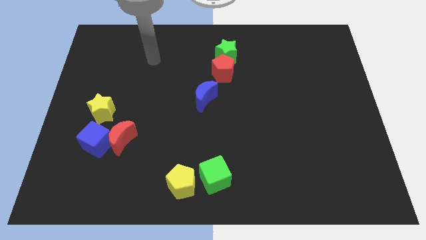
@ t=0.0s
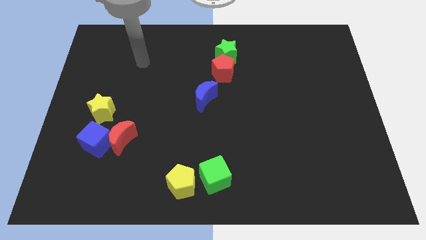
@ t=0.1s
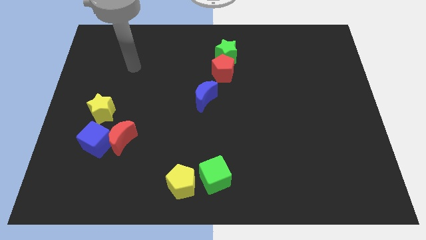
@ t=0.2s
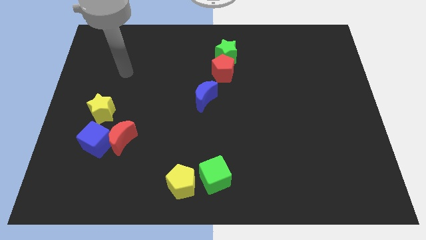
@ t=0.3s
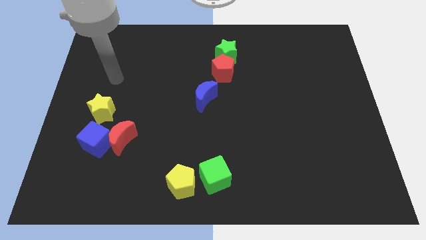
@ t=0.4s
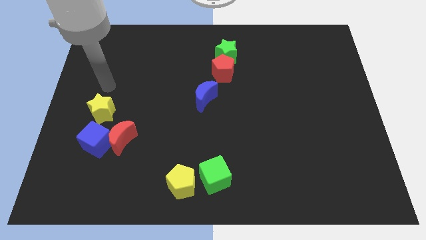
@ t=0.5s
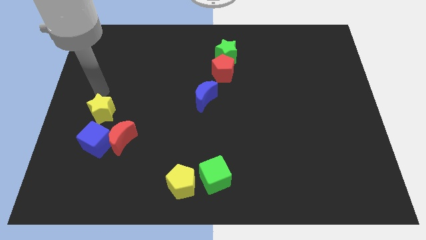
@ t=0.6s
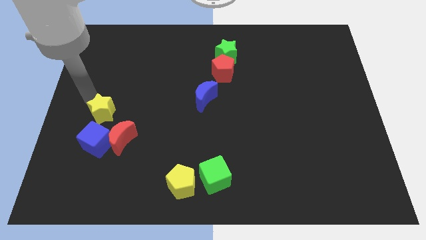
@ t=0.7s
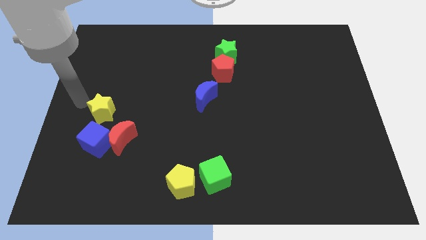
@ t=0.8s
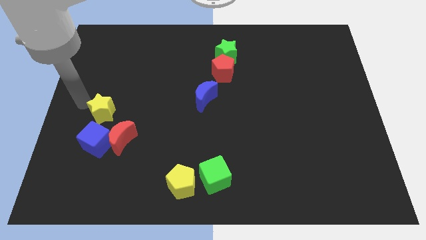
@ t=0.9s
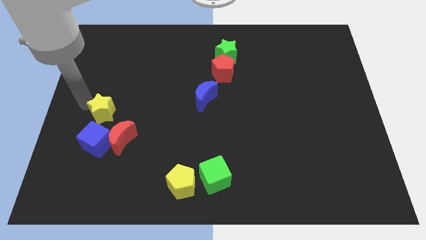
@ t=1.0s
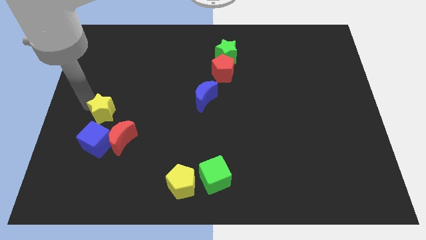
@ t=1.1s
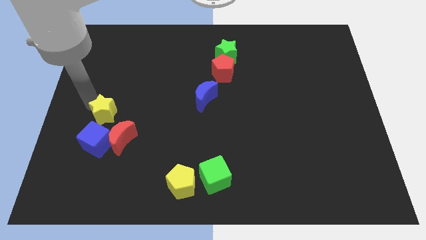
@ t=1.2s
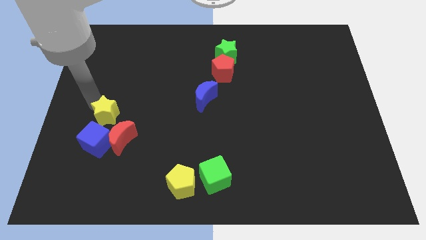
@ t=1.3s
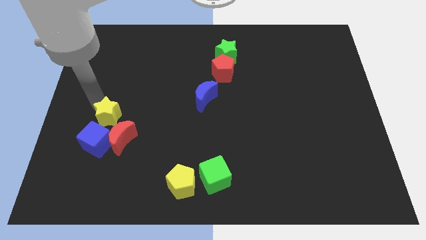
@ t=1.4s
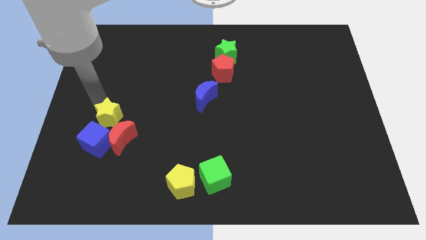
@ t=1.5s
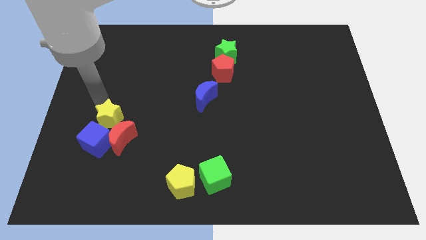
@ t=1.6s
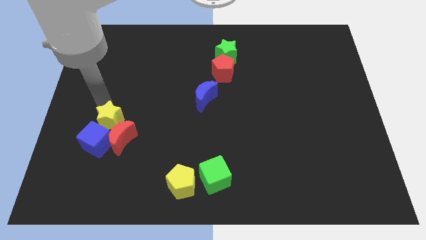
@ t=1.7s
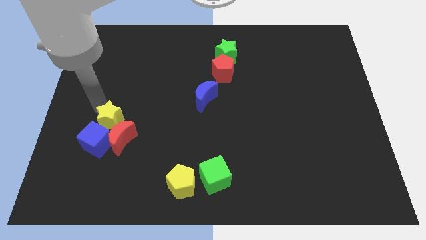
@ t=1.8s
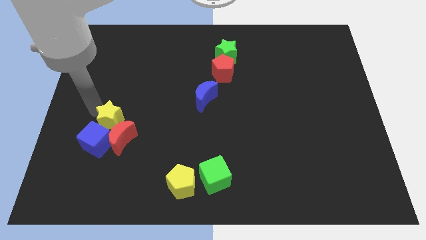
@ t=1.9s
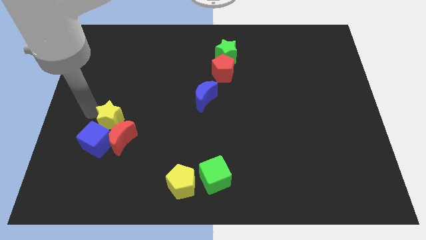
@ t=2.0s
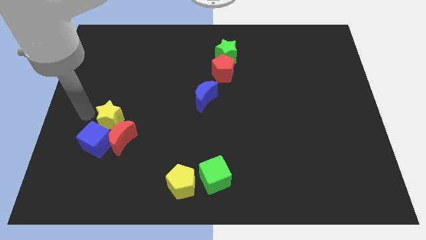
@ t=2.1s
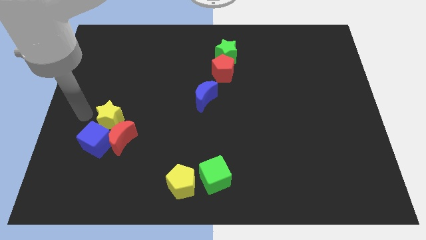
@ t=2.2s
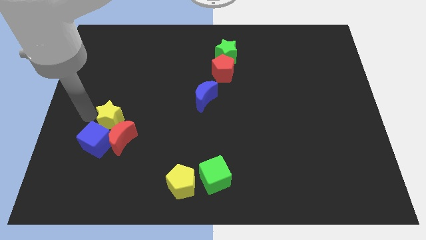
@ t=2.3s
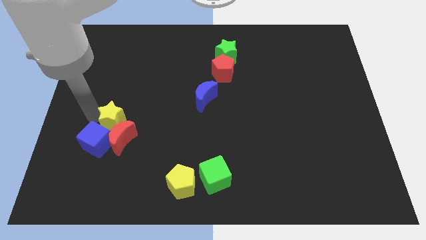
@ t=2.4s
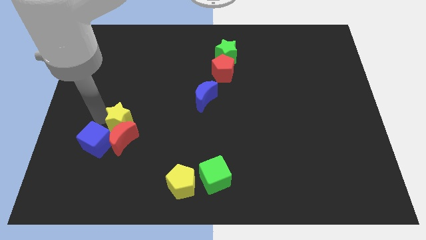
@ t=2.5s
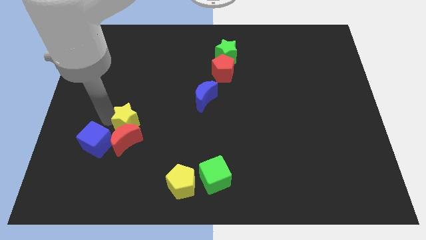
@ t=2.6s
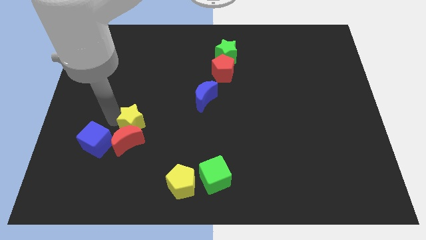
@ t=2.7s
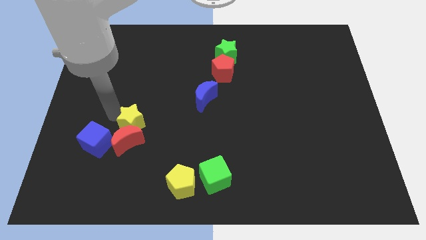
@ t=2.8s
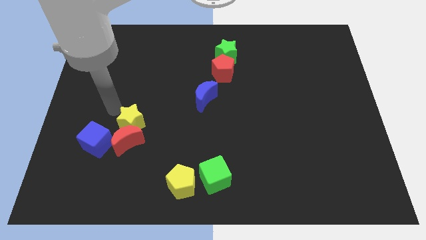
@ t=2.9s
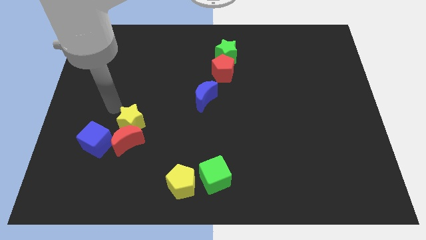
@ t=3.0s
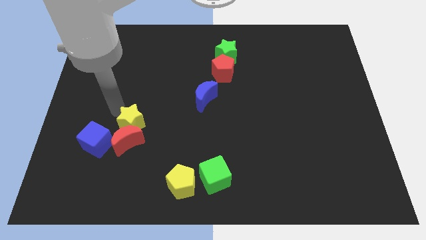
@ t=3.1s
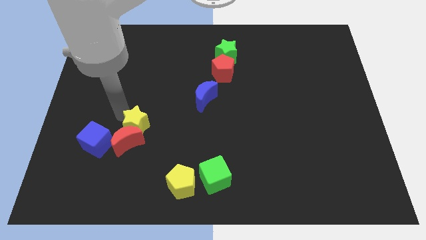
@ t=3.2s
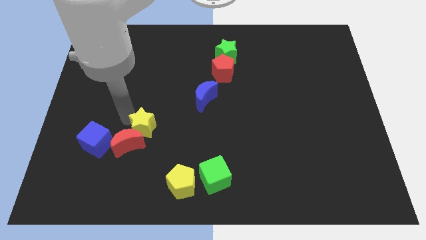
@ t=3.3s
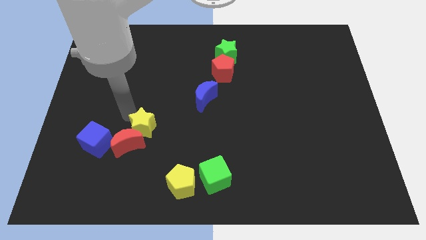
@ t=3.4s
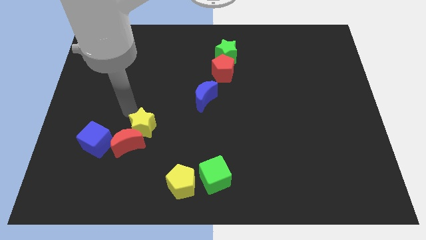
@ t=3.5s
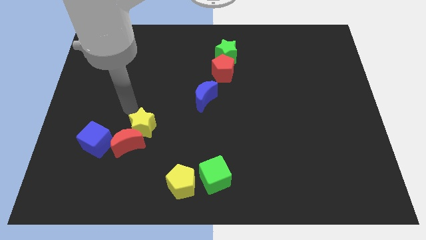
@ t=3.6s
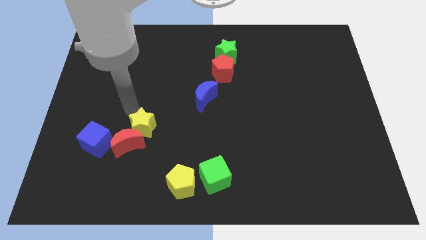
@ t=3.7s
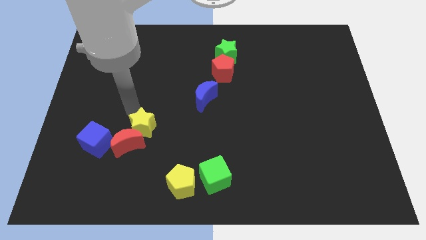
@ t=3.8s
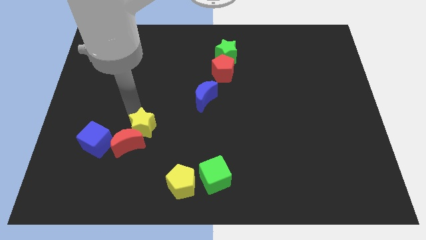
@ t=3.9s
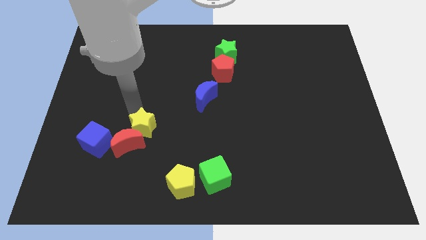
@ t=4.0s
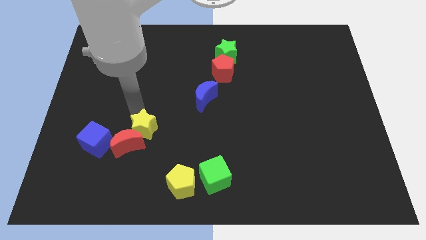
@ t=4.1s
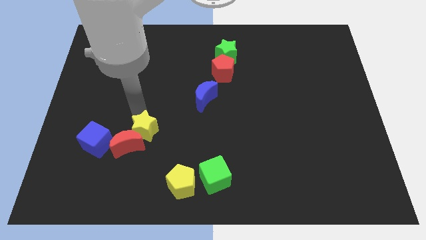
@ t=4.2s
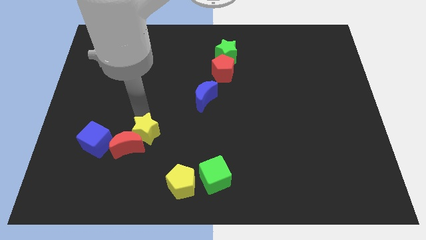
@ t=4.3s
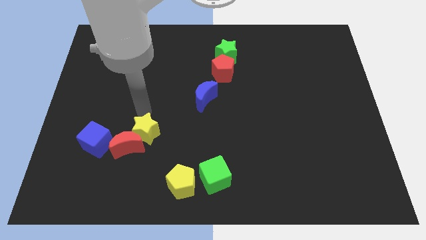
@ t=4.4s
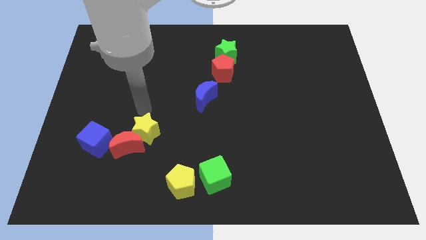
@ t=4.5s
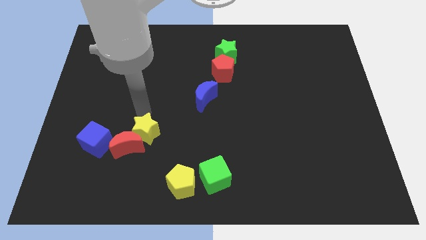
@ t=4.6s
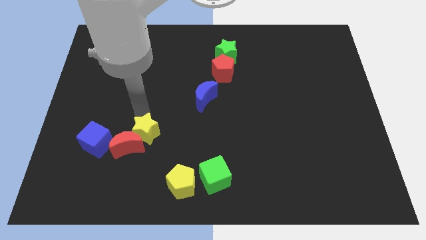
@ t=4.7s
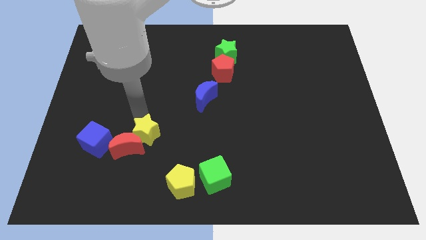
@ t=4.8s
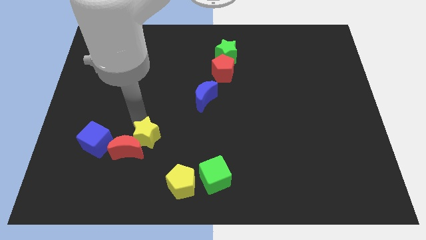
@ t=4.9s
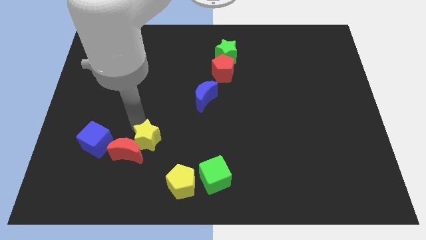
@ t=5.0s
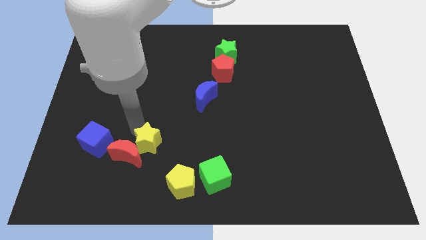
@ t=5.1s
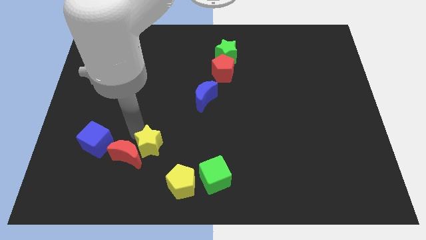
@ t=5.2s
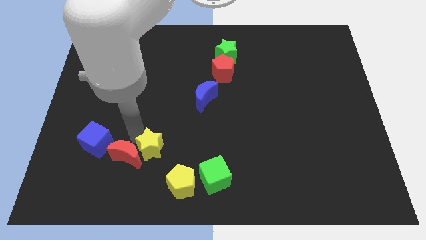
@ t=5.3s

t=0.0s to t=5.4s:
push the yellow star to the bottom right of the red moon

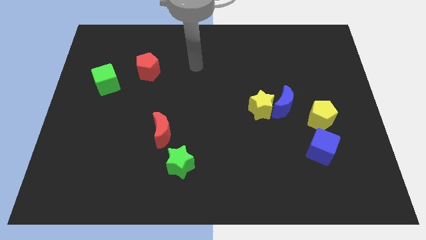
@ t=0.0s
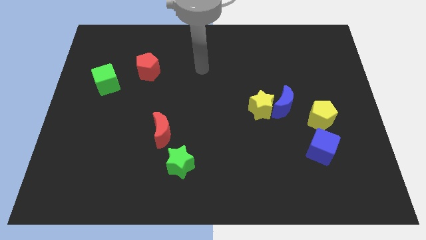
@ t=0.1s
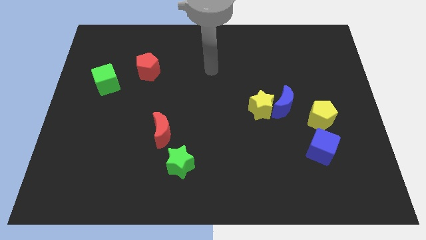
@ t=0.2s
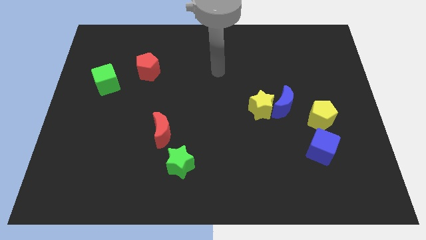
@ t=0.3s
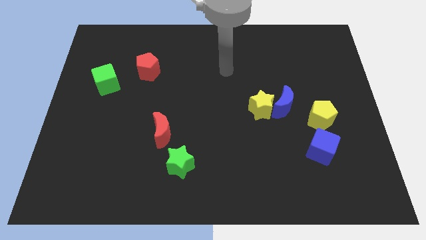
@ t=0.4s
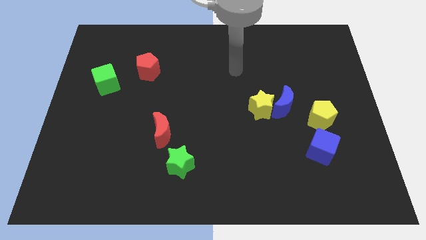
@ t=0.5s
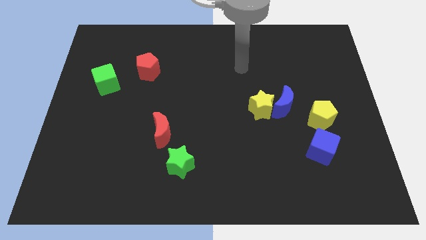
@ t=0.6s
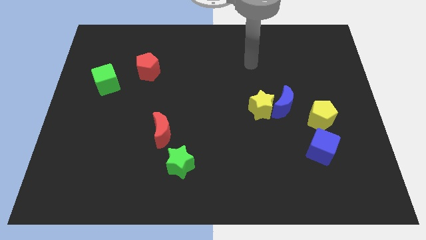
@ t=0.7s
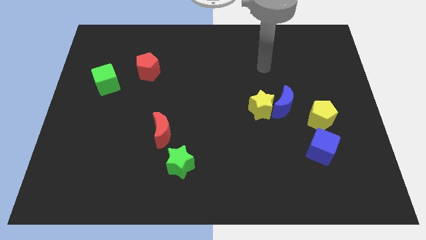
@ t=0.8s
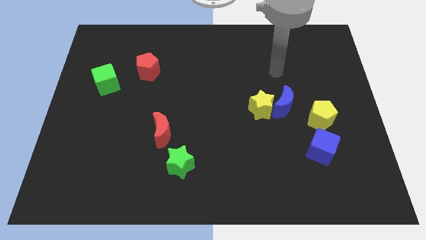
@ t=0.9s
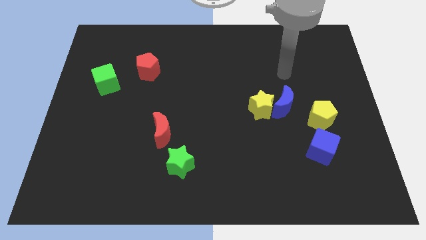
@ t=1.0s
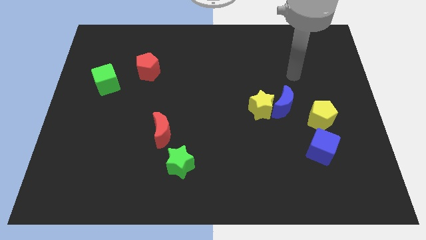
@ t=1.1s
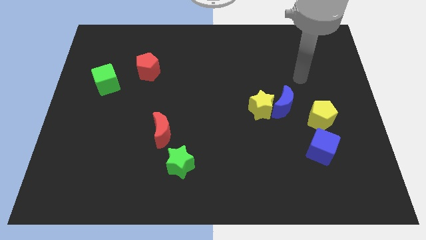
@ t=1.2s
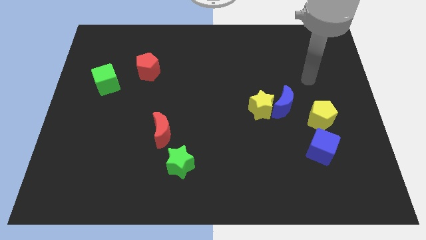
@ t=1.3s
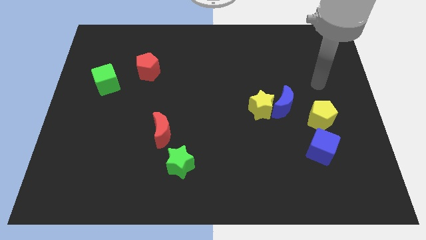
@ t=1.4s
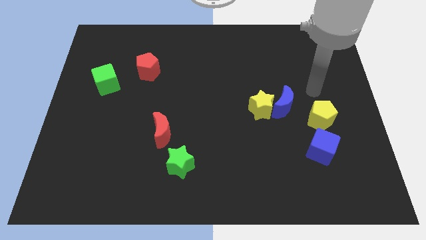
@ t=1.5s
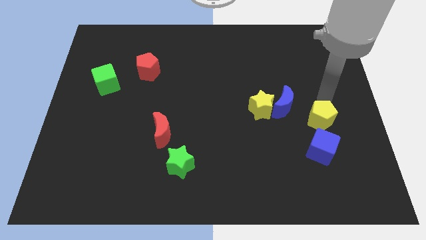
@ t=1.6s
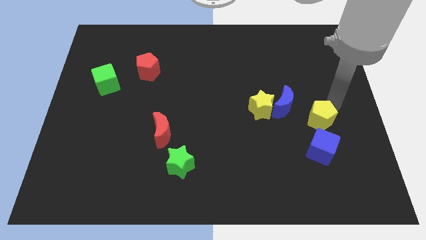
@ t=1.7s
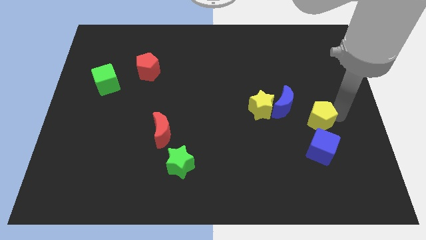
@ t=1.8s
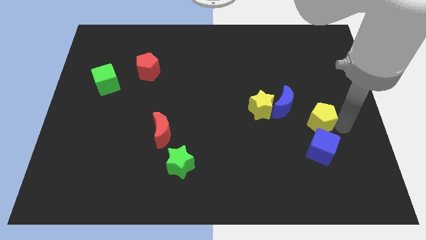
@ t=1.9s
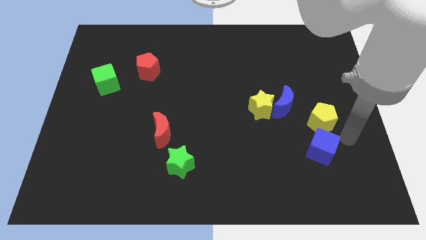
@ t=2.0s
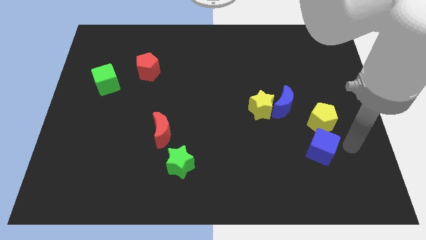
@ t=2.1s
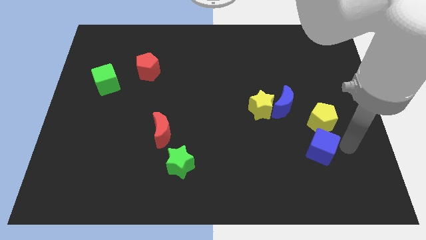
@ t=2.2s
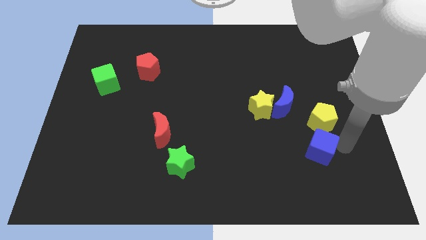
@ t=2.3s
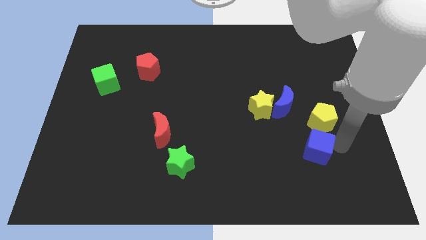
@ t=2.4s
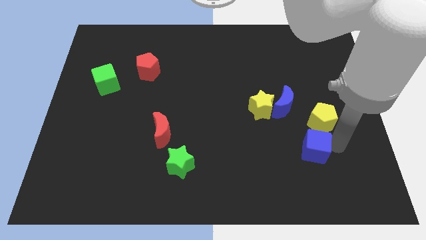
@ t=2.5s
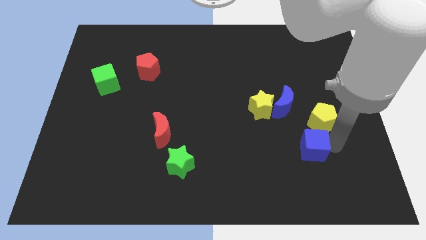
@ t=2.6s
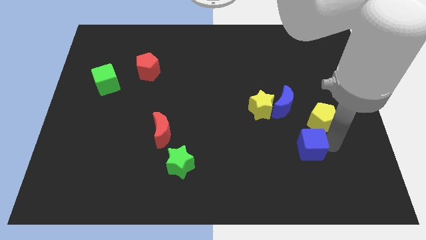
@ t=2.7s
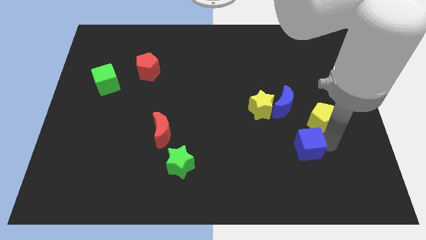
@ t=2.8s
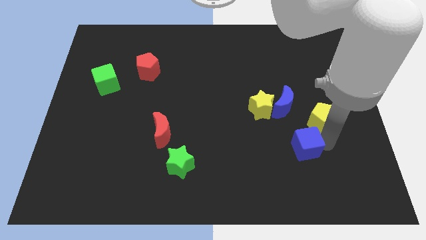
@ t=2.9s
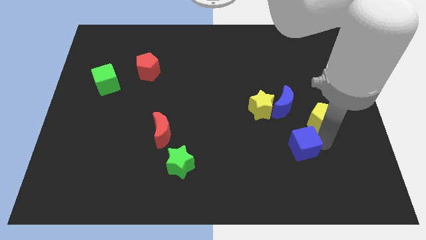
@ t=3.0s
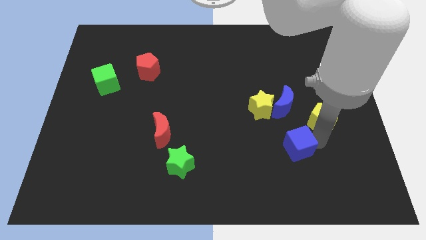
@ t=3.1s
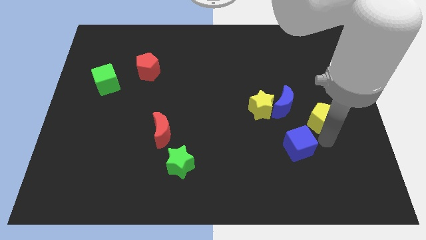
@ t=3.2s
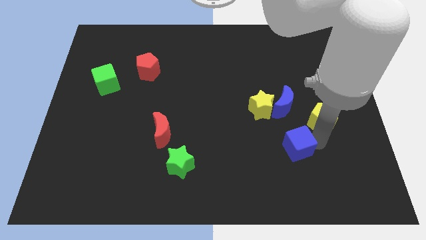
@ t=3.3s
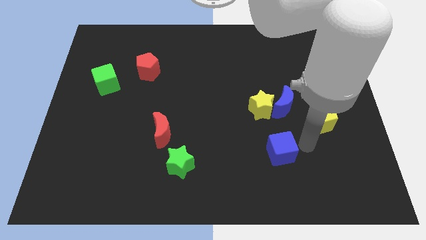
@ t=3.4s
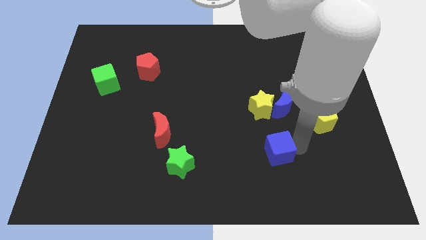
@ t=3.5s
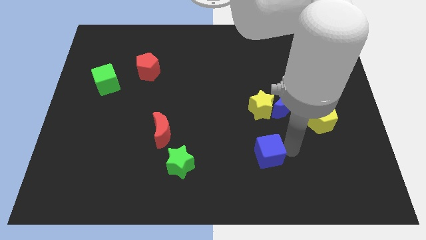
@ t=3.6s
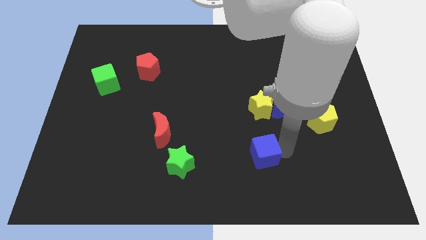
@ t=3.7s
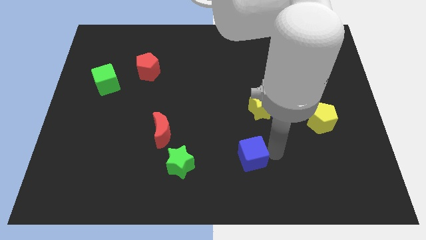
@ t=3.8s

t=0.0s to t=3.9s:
move the blue cube to the right side of the green star
